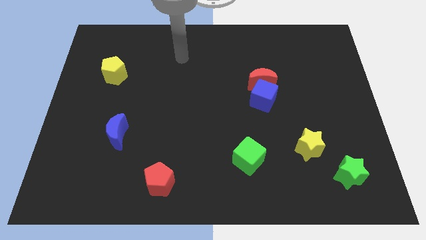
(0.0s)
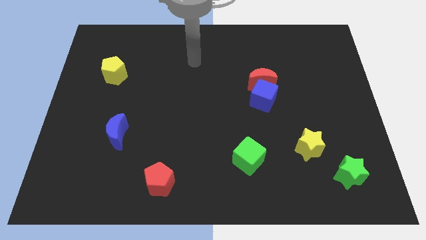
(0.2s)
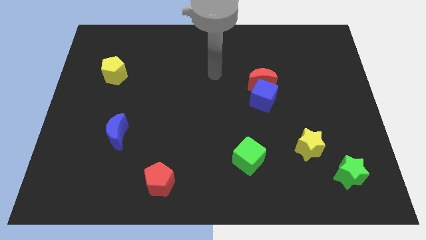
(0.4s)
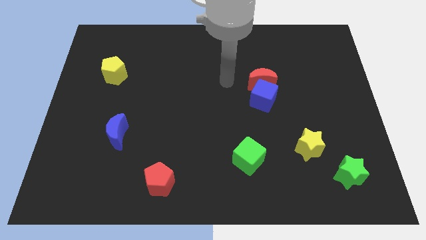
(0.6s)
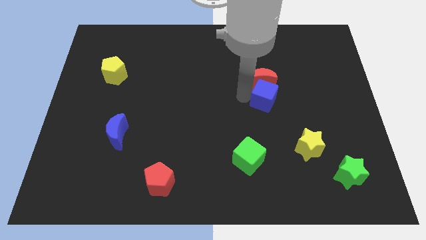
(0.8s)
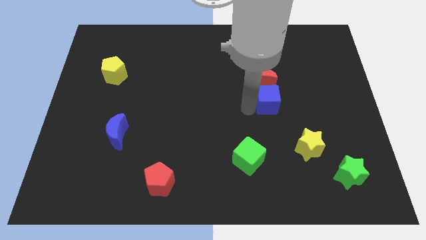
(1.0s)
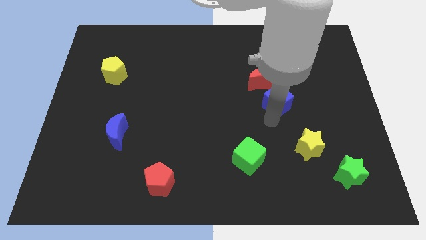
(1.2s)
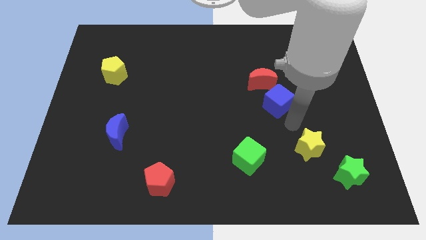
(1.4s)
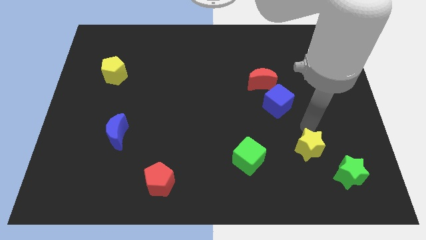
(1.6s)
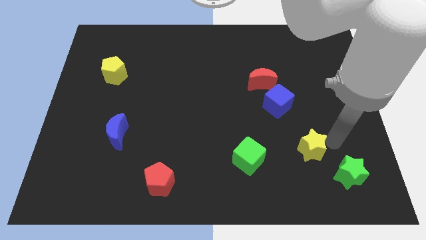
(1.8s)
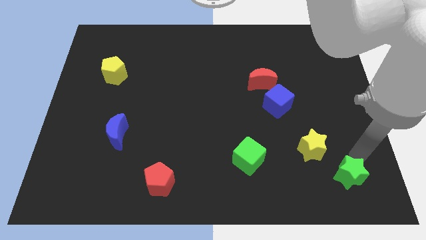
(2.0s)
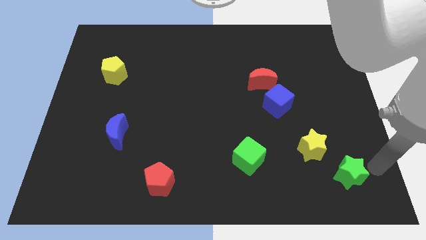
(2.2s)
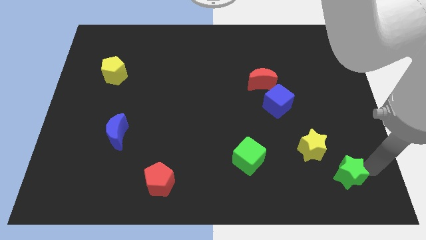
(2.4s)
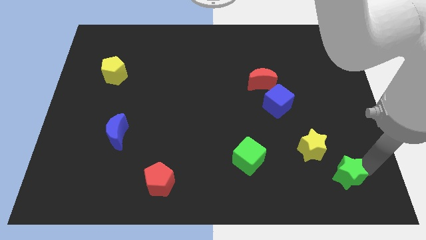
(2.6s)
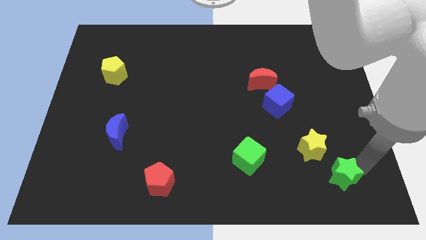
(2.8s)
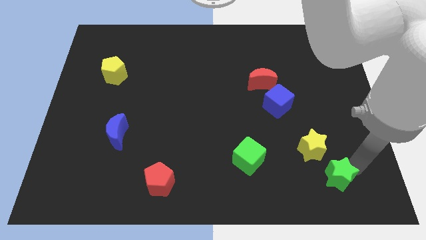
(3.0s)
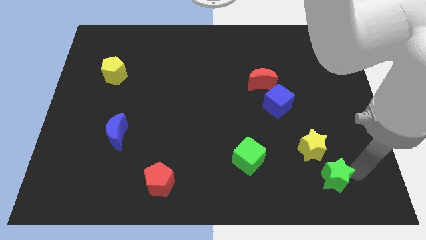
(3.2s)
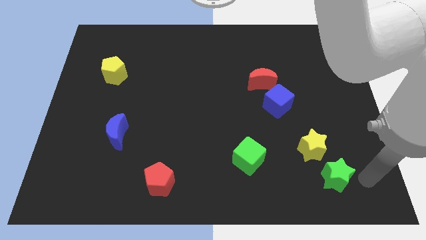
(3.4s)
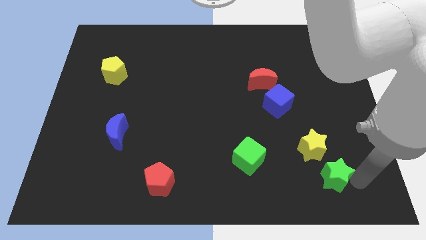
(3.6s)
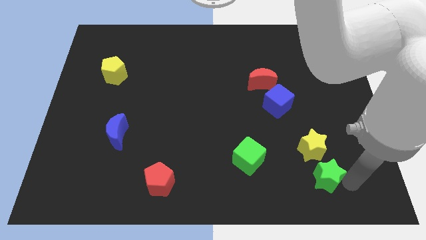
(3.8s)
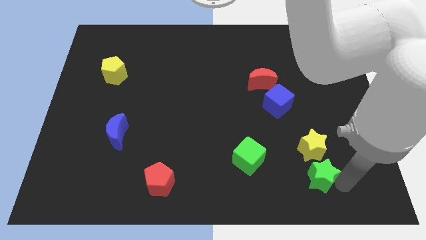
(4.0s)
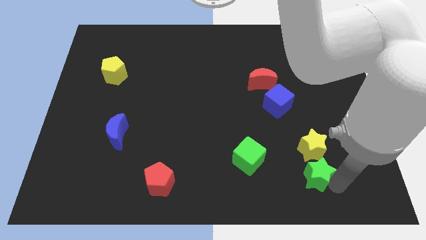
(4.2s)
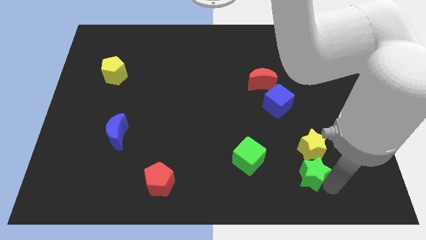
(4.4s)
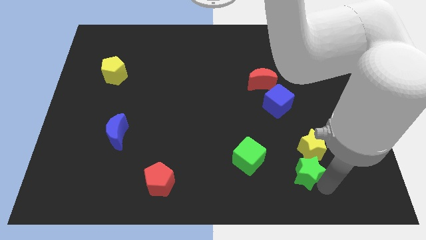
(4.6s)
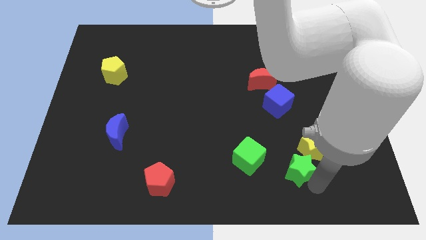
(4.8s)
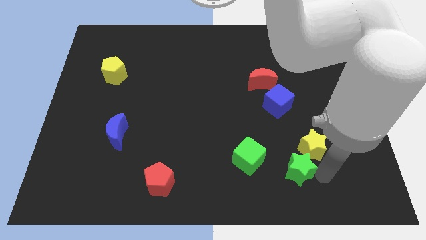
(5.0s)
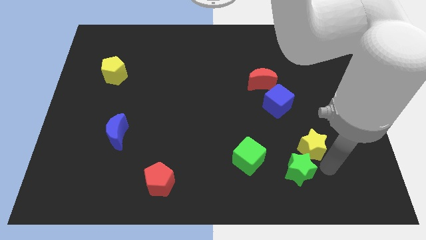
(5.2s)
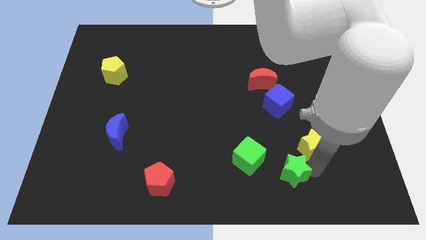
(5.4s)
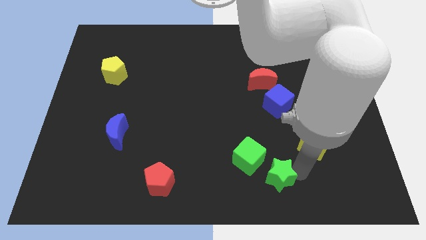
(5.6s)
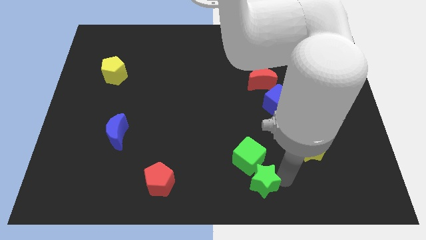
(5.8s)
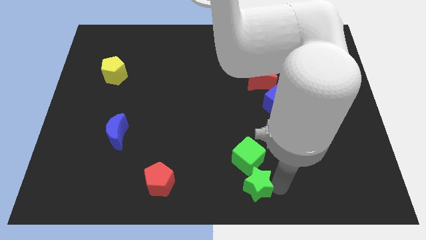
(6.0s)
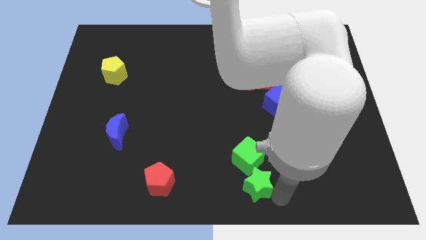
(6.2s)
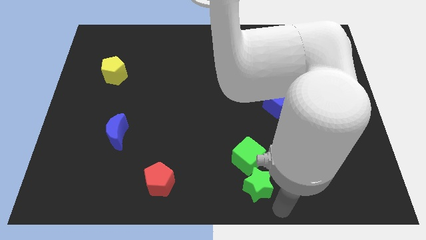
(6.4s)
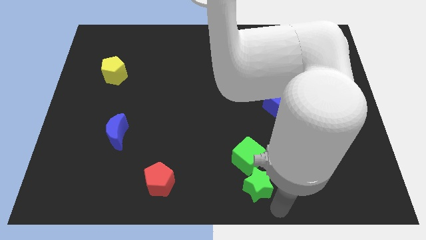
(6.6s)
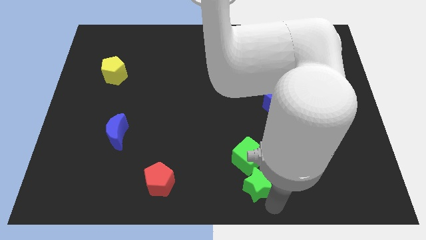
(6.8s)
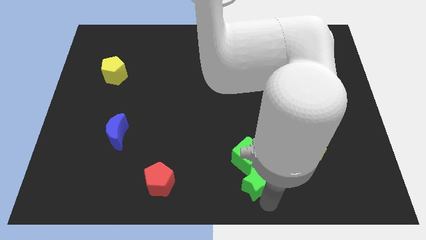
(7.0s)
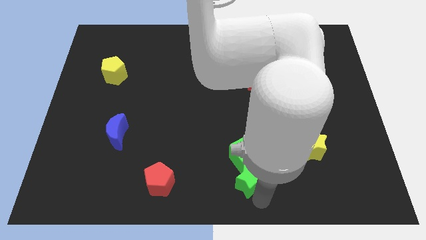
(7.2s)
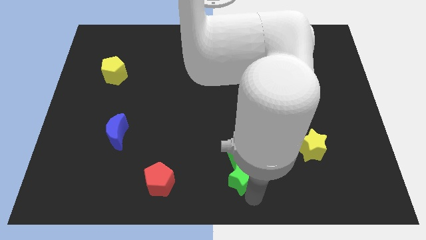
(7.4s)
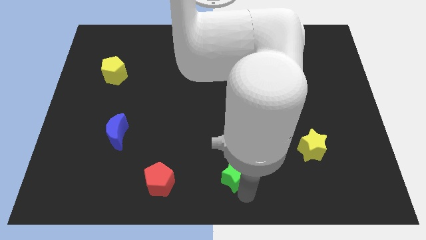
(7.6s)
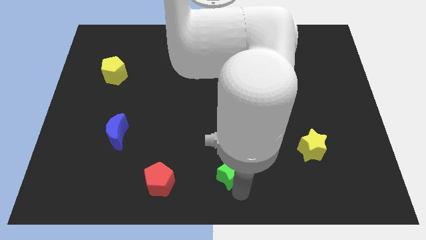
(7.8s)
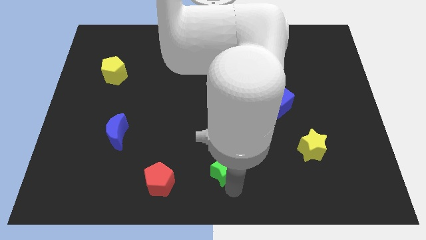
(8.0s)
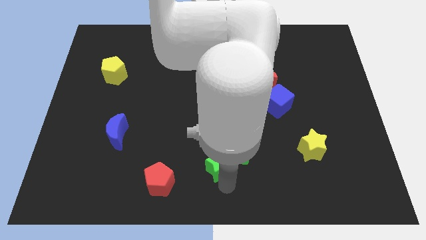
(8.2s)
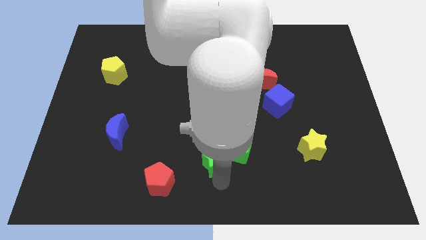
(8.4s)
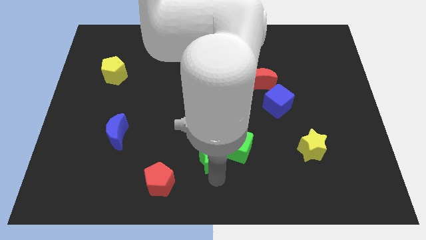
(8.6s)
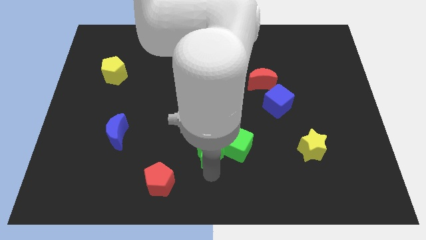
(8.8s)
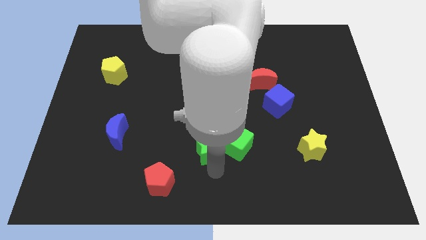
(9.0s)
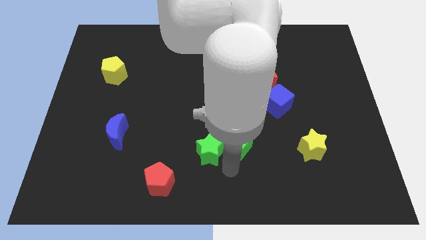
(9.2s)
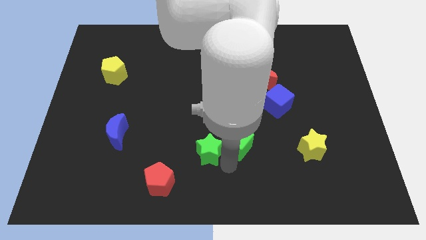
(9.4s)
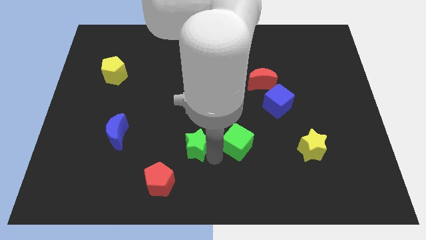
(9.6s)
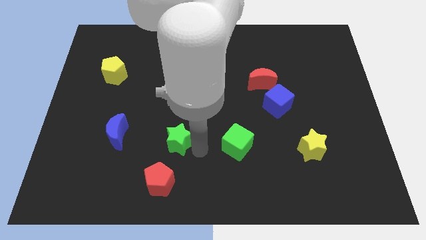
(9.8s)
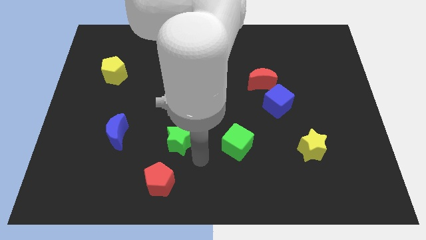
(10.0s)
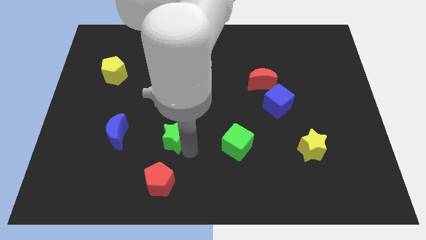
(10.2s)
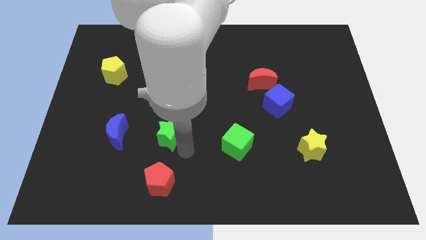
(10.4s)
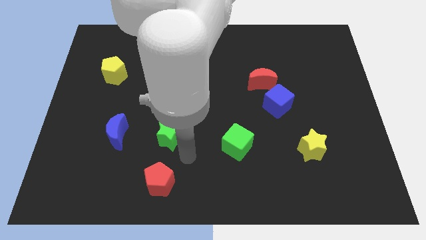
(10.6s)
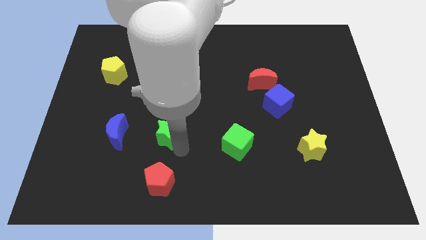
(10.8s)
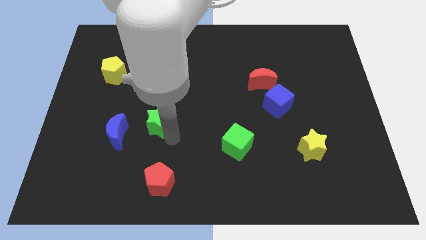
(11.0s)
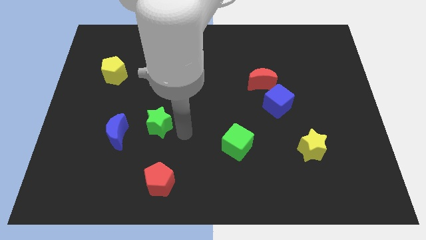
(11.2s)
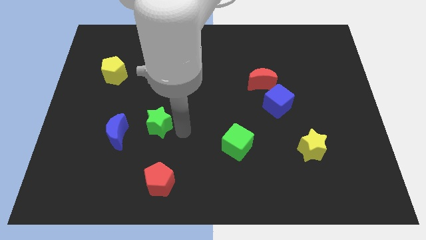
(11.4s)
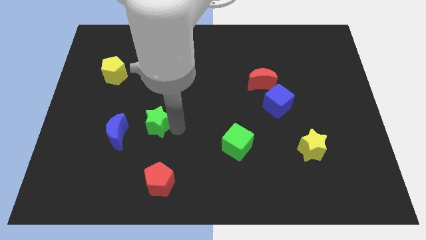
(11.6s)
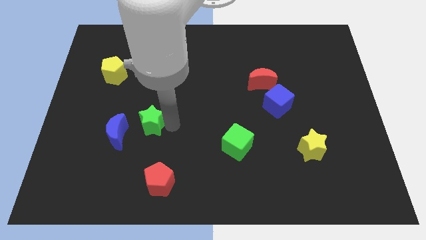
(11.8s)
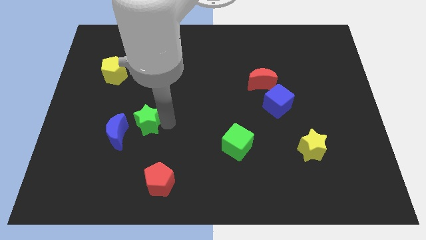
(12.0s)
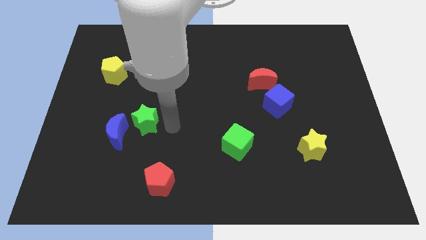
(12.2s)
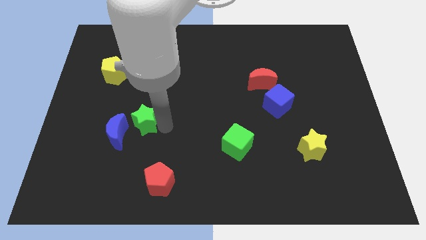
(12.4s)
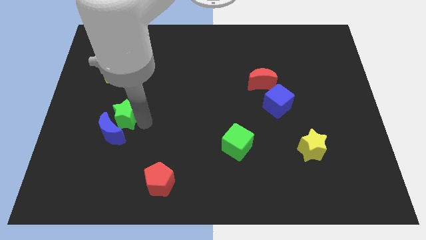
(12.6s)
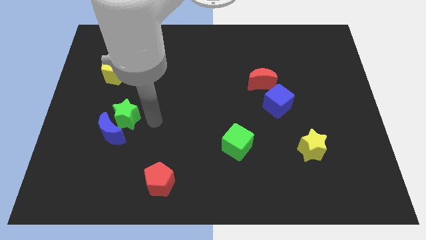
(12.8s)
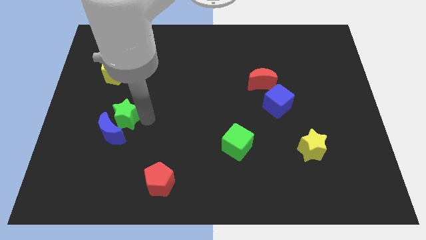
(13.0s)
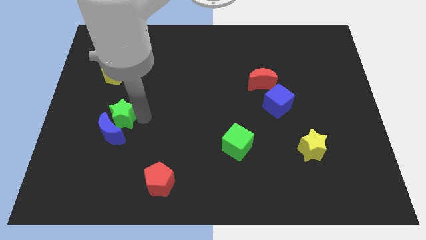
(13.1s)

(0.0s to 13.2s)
push the green star to the top left of the blue moon

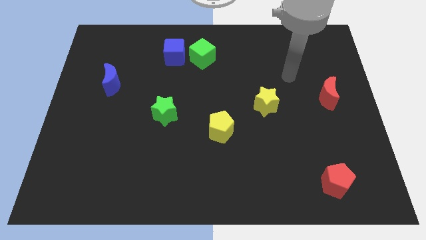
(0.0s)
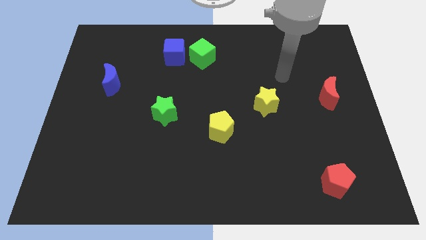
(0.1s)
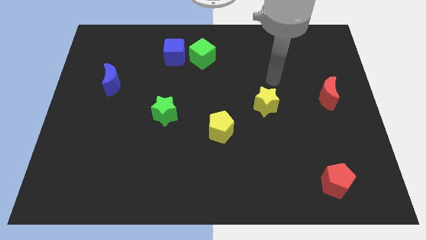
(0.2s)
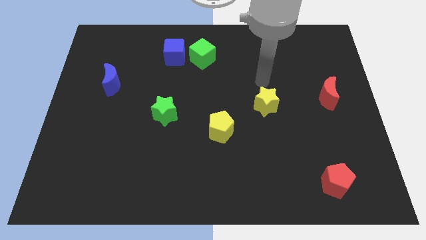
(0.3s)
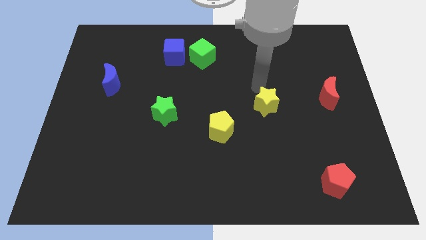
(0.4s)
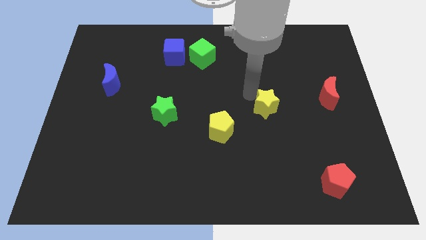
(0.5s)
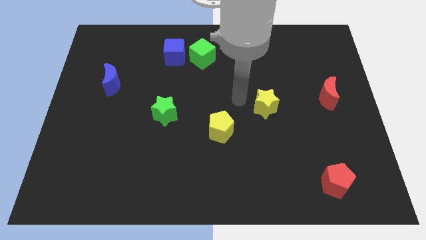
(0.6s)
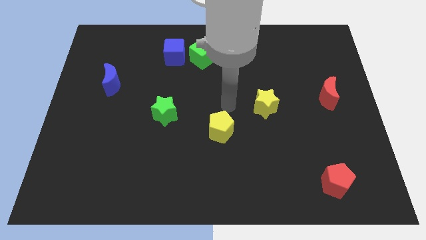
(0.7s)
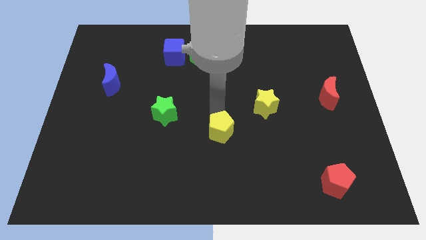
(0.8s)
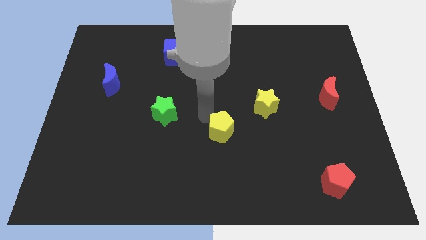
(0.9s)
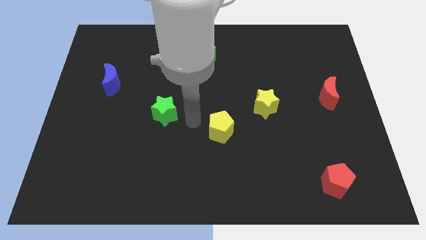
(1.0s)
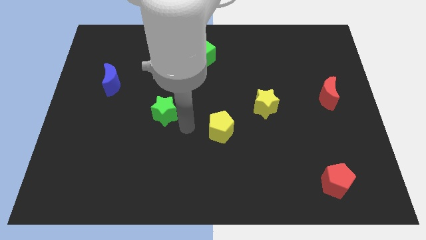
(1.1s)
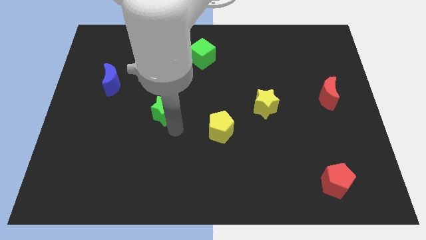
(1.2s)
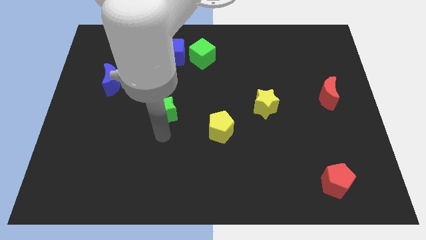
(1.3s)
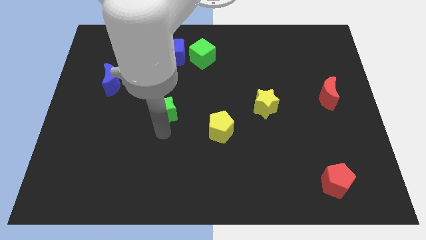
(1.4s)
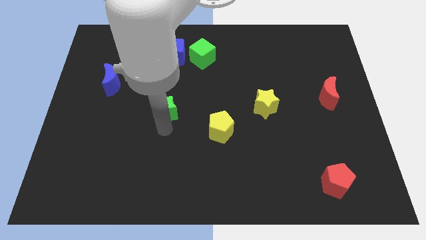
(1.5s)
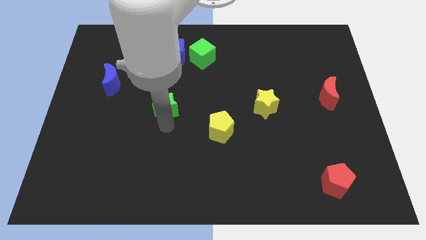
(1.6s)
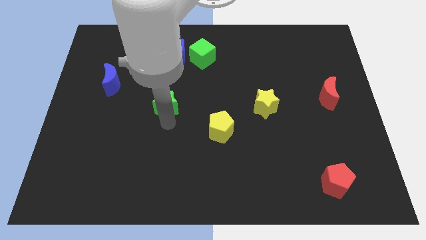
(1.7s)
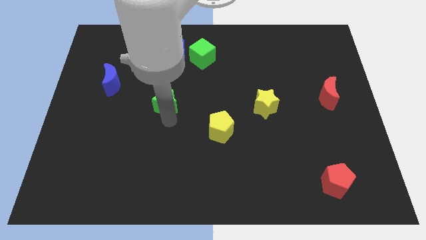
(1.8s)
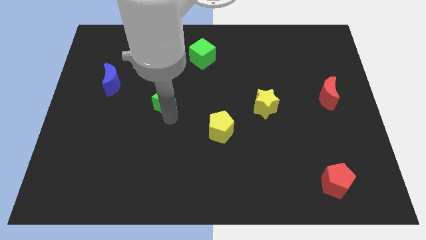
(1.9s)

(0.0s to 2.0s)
slide the green star below the blue cube
